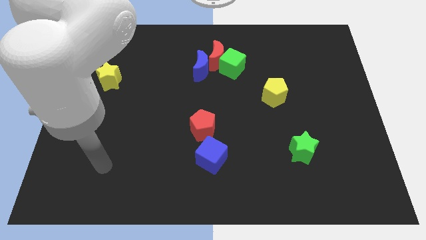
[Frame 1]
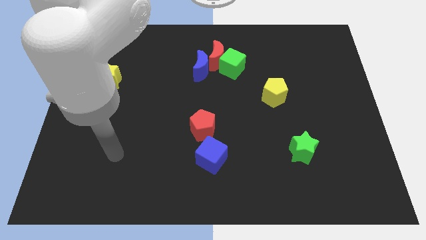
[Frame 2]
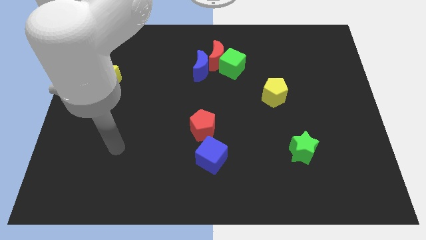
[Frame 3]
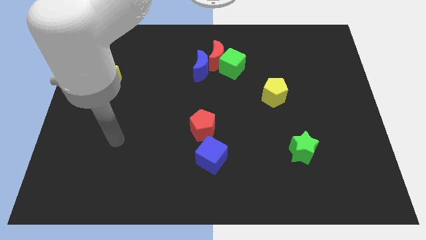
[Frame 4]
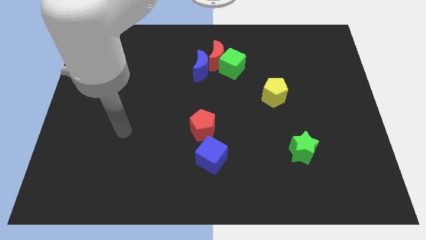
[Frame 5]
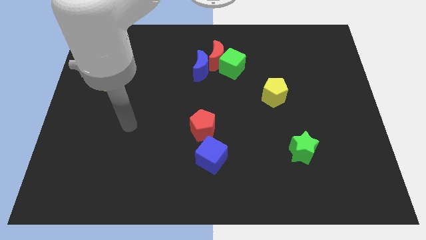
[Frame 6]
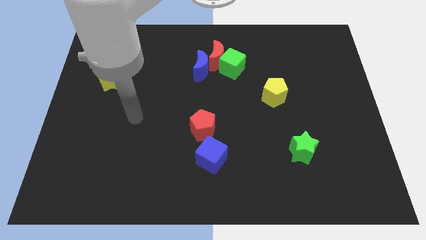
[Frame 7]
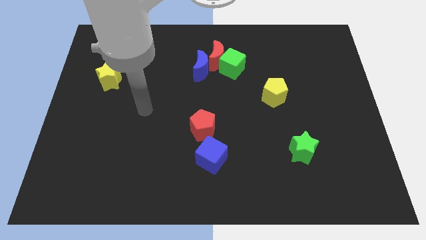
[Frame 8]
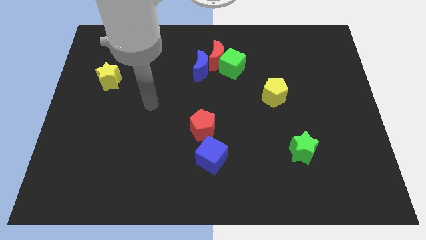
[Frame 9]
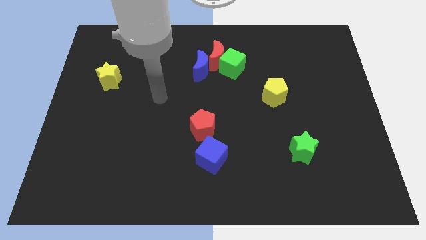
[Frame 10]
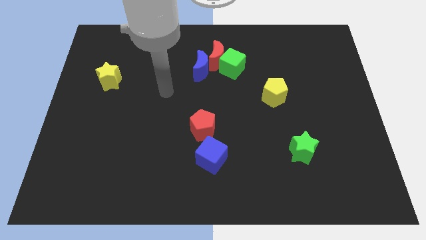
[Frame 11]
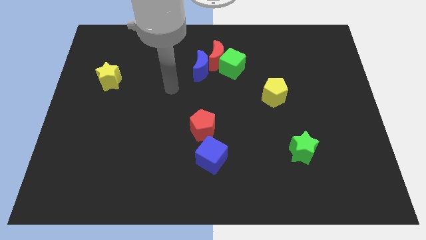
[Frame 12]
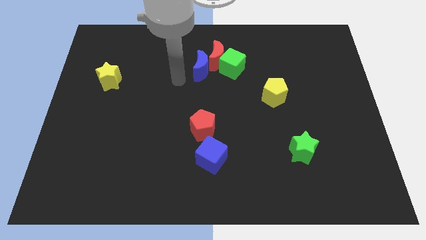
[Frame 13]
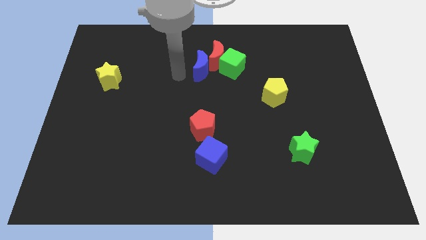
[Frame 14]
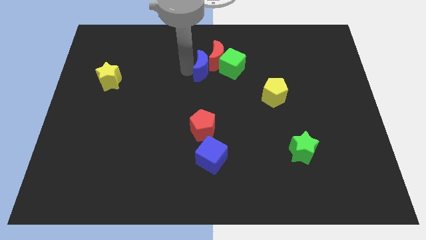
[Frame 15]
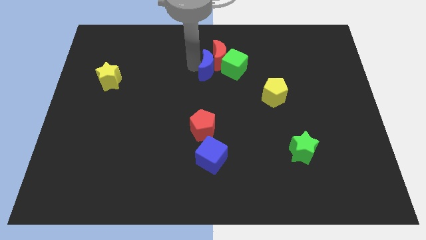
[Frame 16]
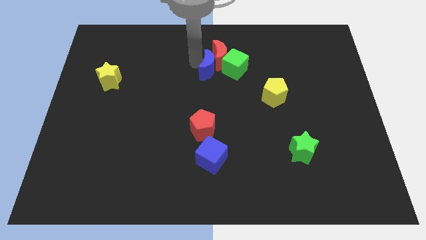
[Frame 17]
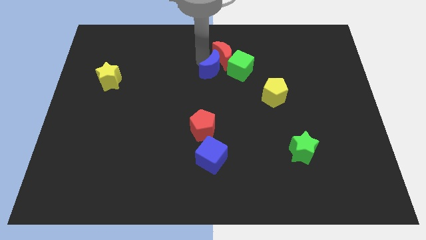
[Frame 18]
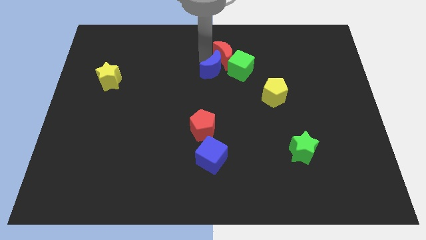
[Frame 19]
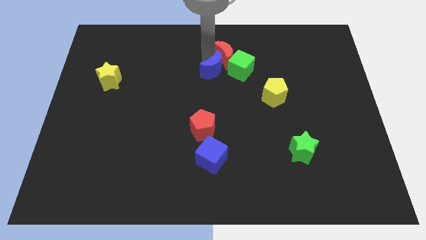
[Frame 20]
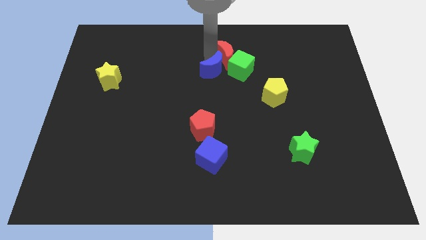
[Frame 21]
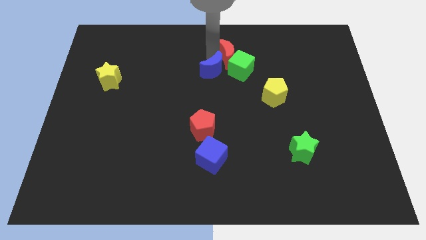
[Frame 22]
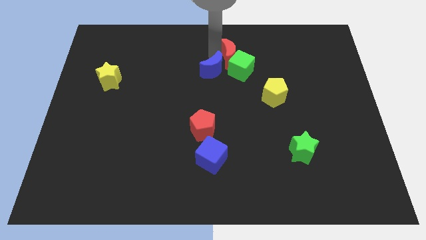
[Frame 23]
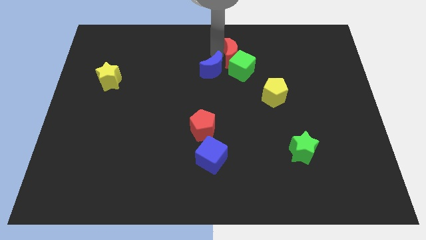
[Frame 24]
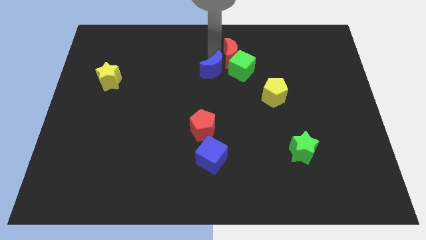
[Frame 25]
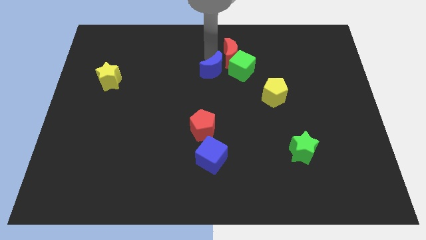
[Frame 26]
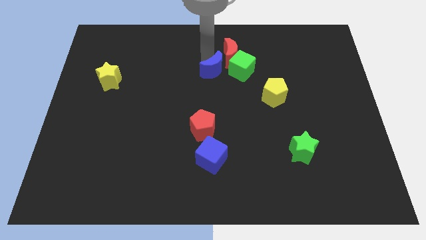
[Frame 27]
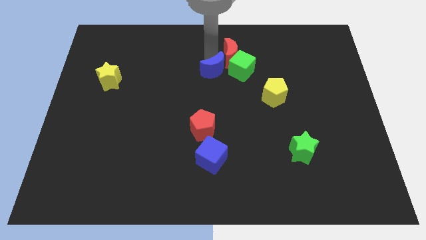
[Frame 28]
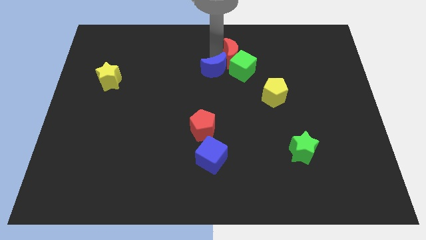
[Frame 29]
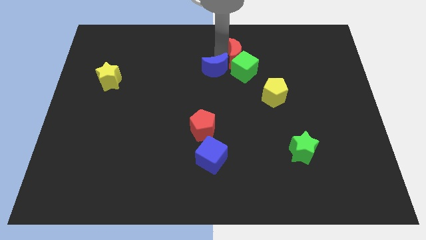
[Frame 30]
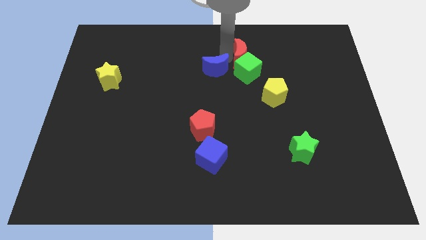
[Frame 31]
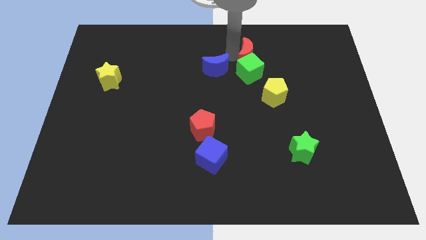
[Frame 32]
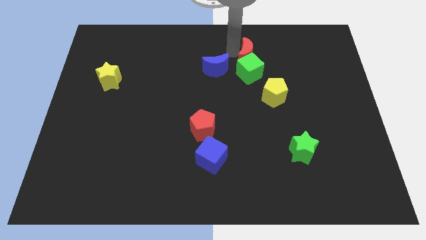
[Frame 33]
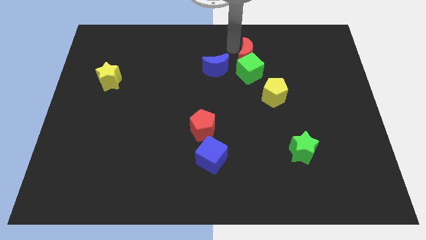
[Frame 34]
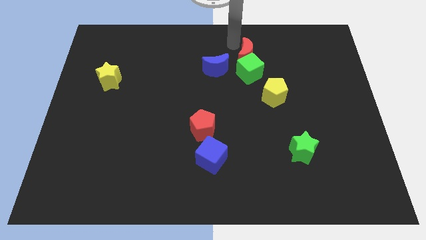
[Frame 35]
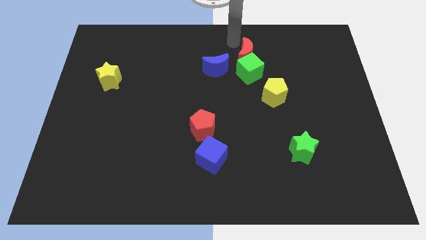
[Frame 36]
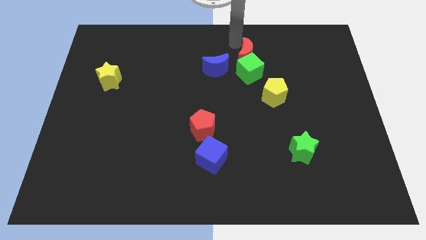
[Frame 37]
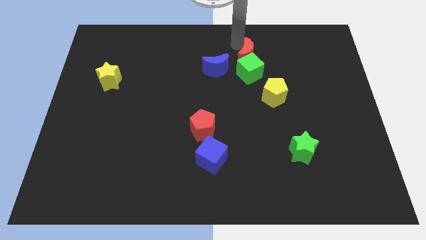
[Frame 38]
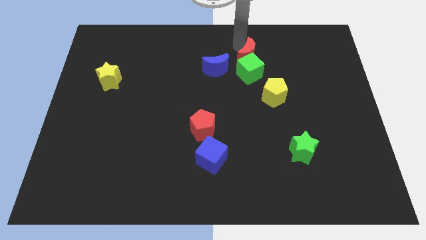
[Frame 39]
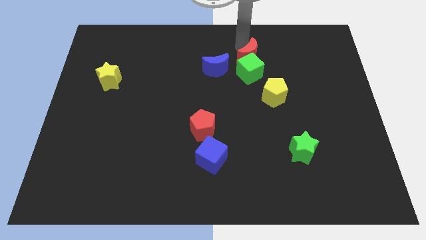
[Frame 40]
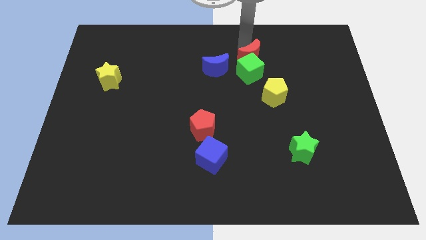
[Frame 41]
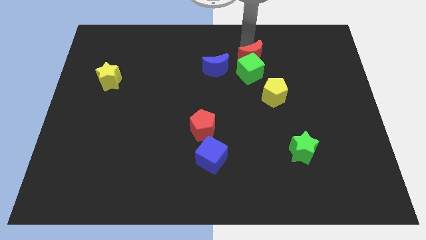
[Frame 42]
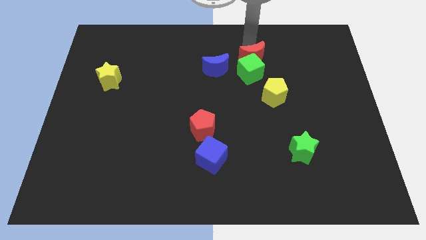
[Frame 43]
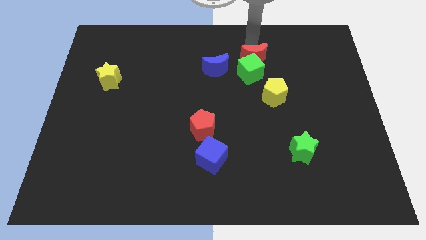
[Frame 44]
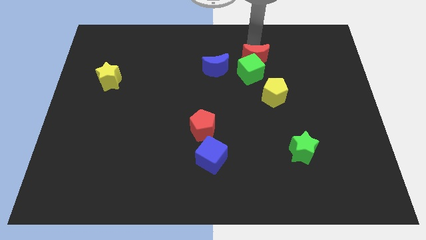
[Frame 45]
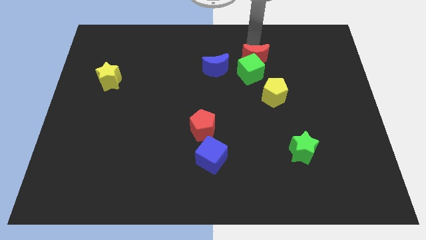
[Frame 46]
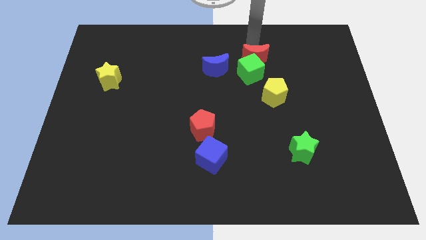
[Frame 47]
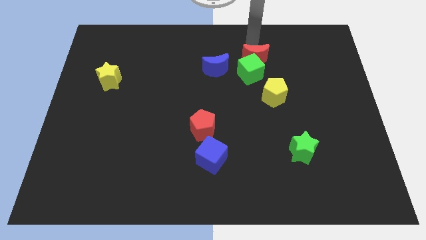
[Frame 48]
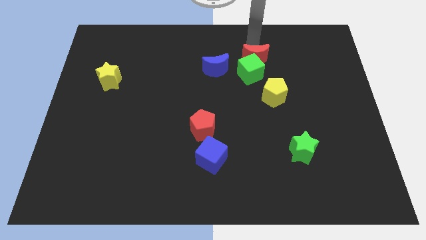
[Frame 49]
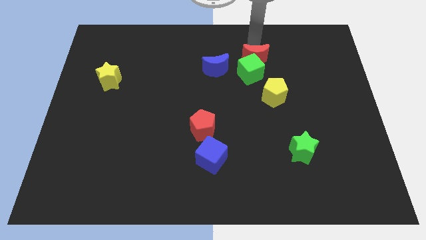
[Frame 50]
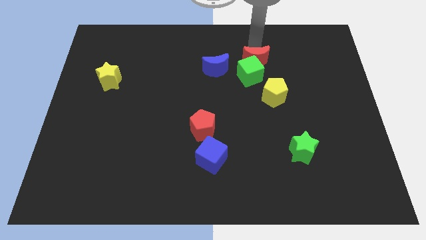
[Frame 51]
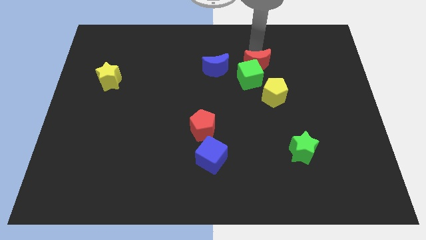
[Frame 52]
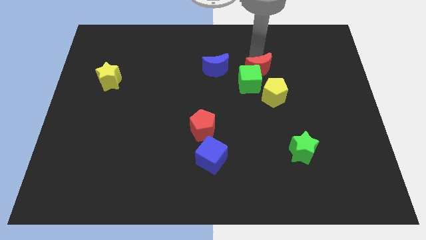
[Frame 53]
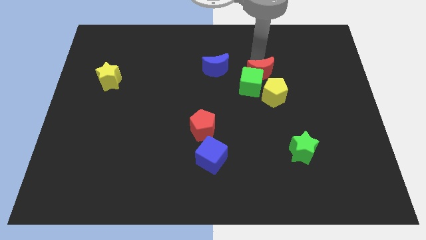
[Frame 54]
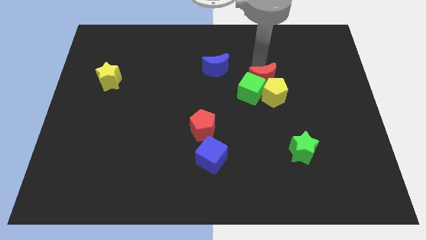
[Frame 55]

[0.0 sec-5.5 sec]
push the red moon next to the yellow pentagon

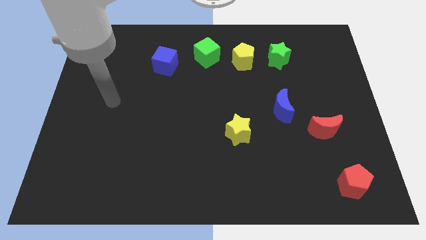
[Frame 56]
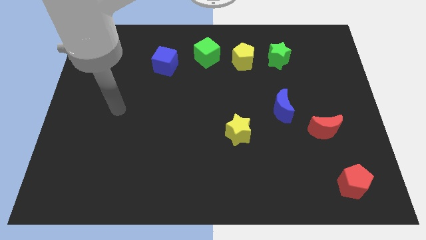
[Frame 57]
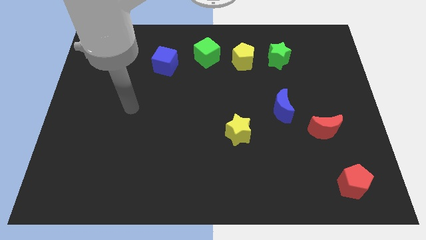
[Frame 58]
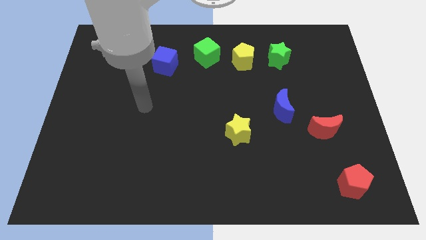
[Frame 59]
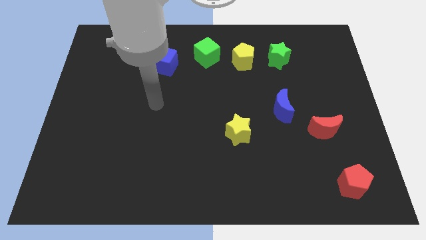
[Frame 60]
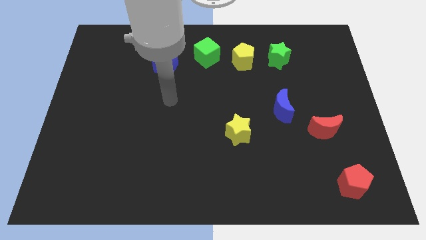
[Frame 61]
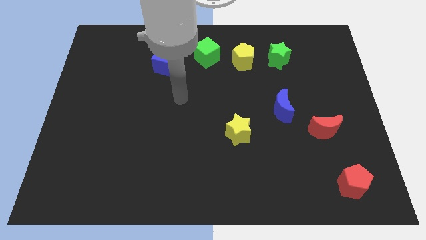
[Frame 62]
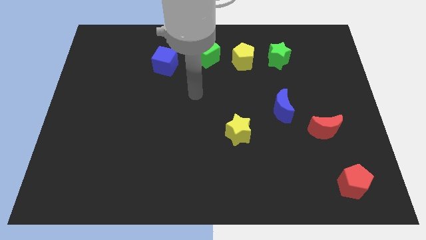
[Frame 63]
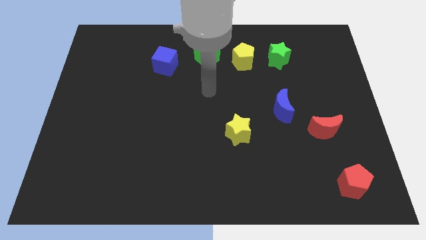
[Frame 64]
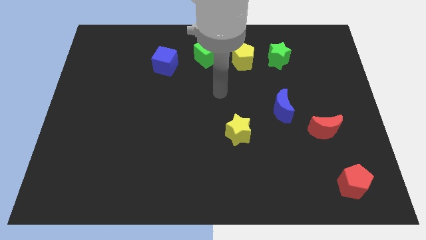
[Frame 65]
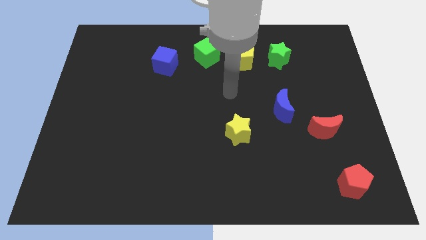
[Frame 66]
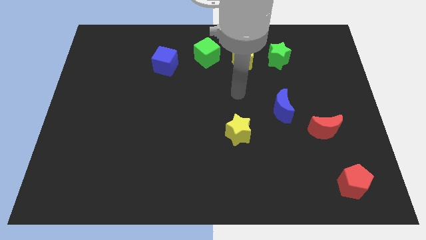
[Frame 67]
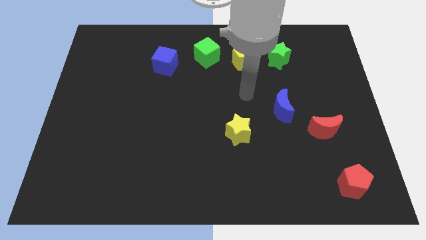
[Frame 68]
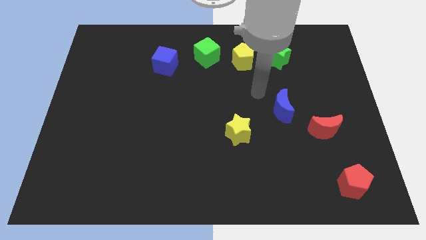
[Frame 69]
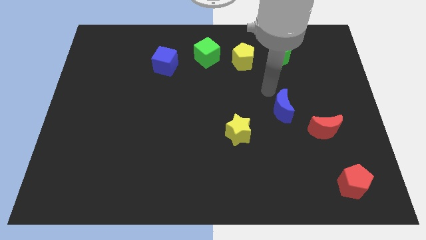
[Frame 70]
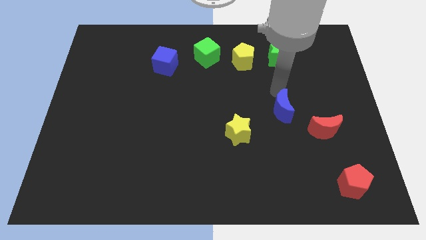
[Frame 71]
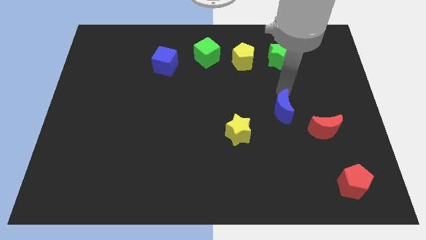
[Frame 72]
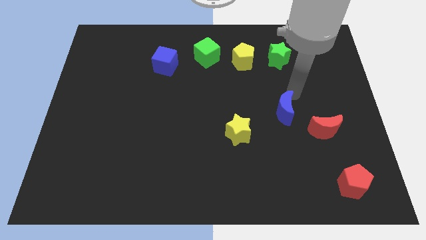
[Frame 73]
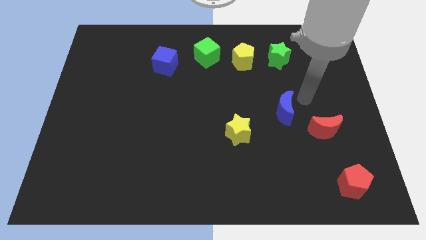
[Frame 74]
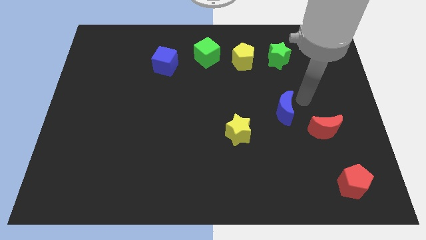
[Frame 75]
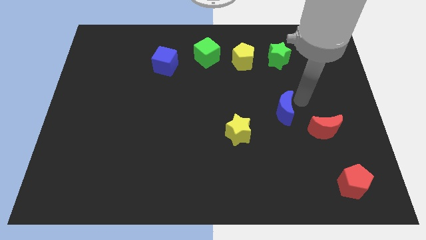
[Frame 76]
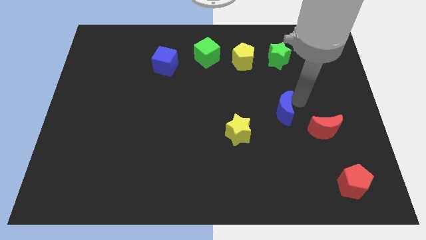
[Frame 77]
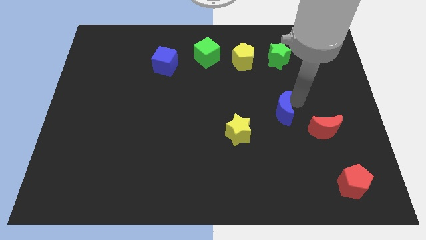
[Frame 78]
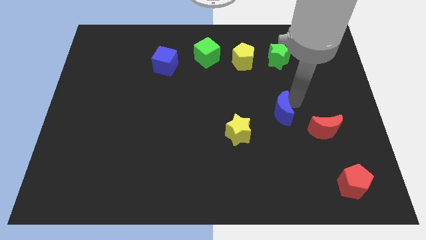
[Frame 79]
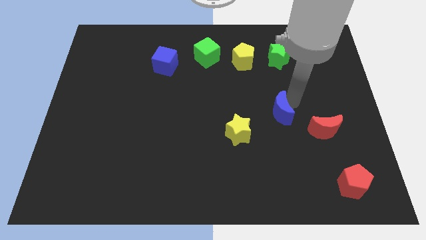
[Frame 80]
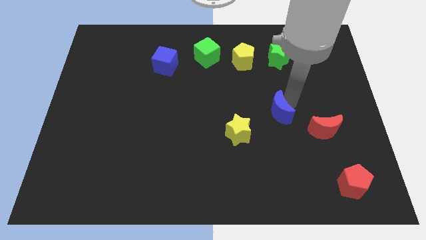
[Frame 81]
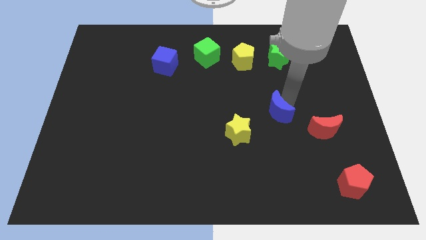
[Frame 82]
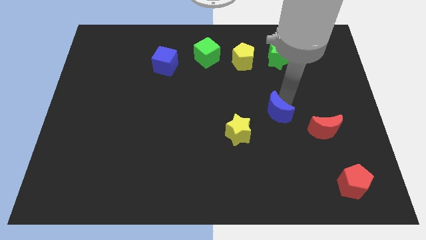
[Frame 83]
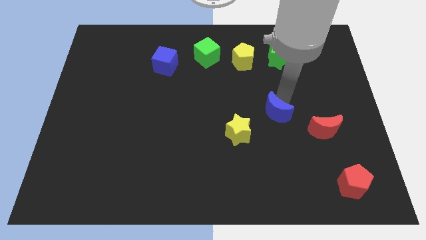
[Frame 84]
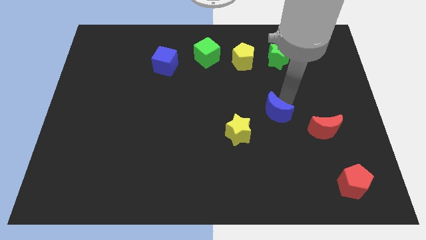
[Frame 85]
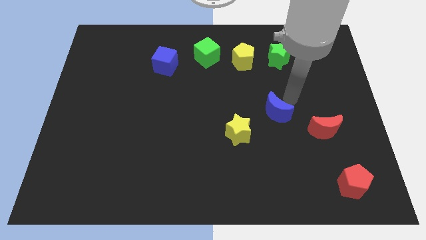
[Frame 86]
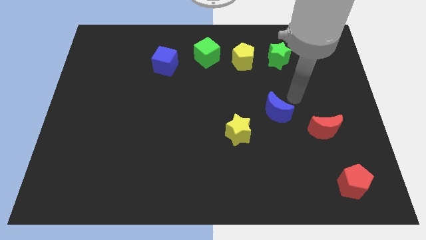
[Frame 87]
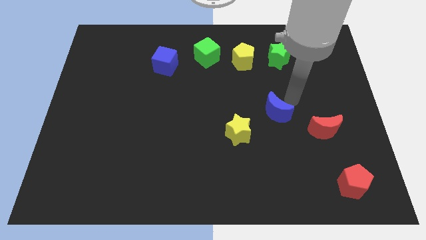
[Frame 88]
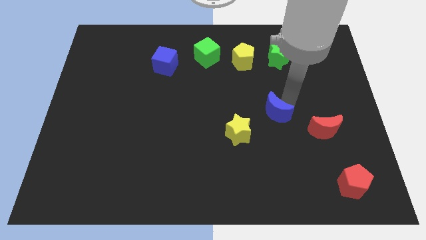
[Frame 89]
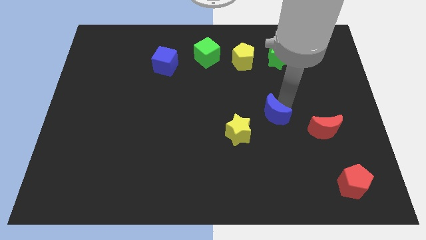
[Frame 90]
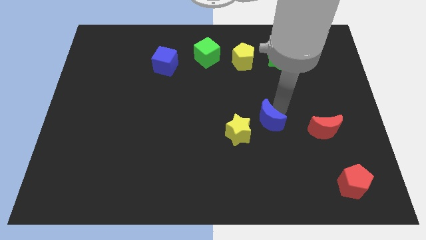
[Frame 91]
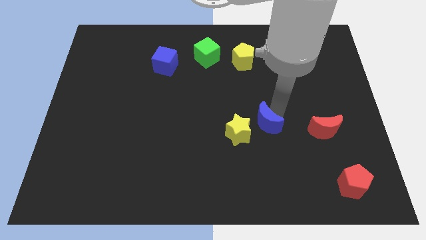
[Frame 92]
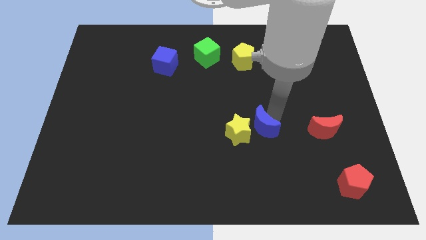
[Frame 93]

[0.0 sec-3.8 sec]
slide the blue moon close to the yellow star
